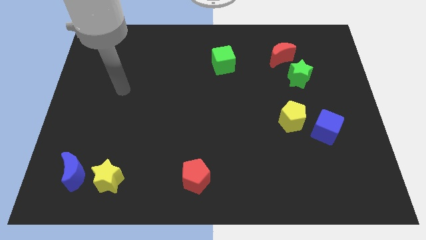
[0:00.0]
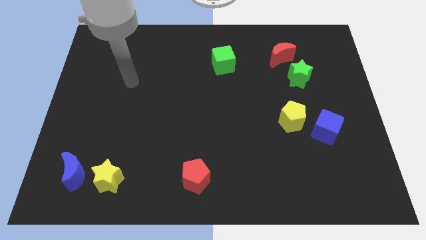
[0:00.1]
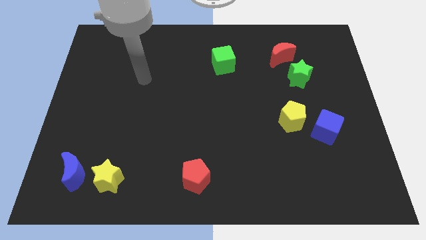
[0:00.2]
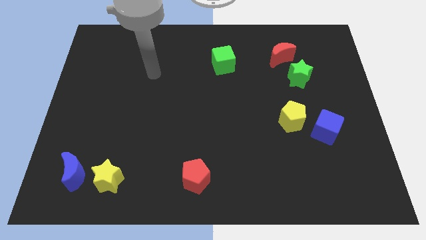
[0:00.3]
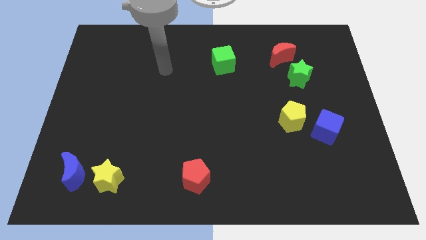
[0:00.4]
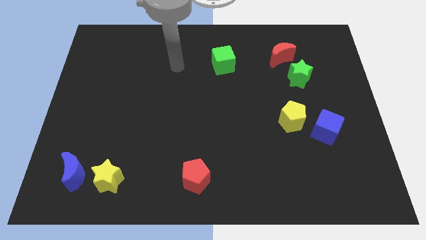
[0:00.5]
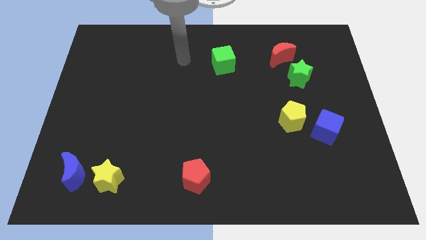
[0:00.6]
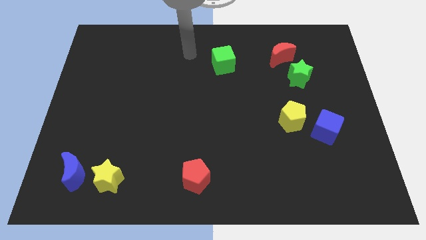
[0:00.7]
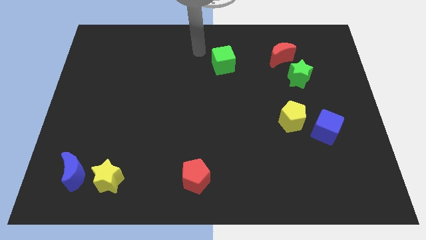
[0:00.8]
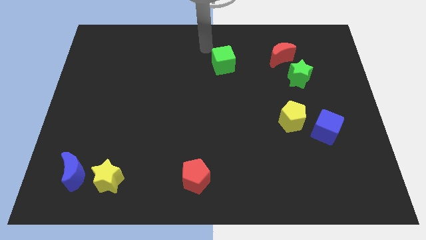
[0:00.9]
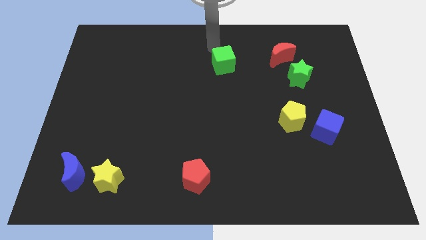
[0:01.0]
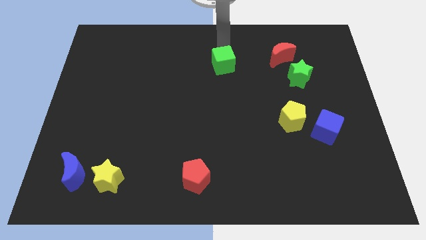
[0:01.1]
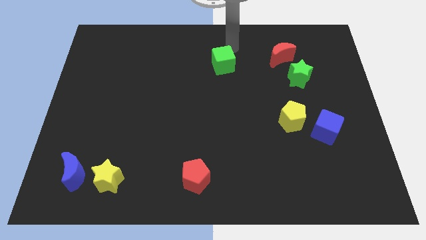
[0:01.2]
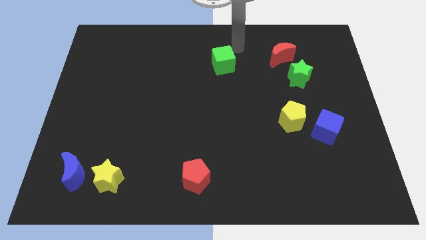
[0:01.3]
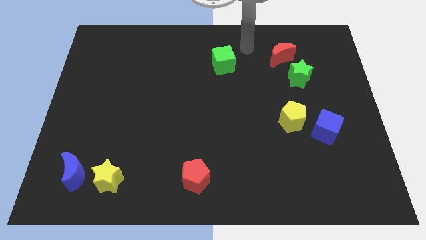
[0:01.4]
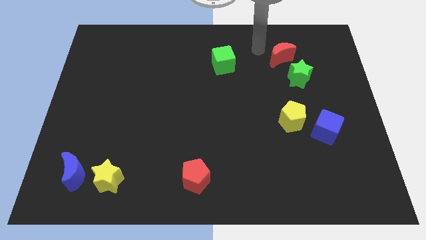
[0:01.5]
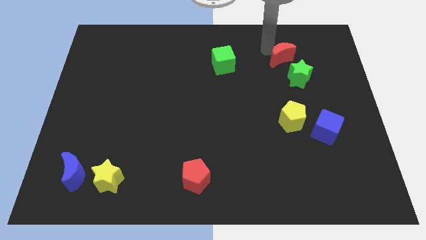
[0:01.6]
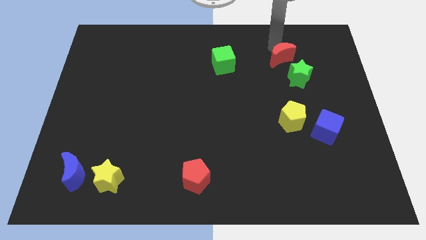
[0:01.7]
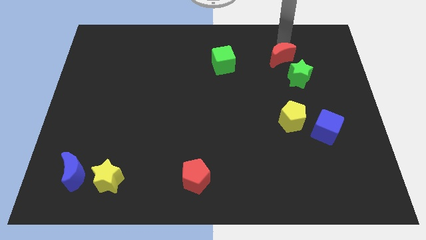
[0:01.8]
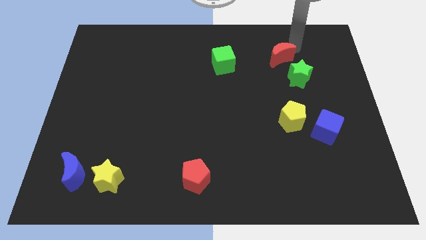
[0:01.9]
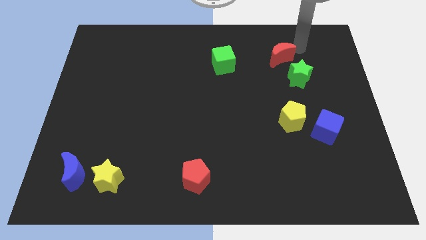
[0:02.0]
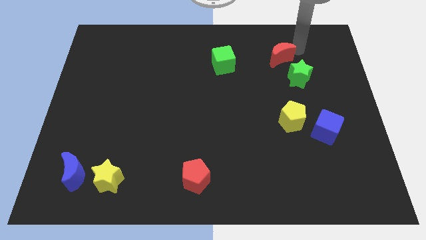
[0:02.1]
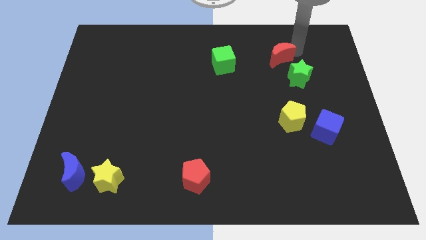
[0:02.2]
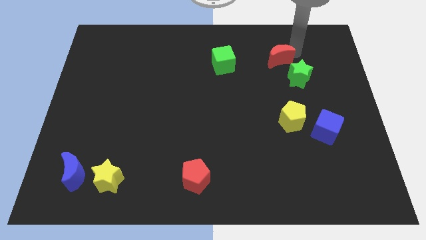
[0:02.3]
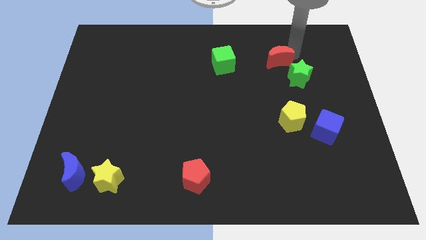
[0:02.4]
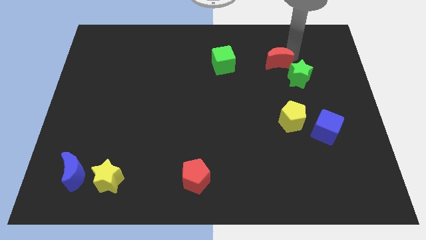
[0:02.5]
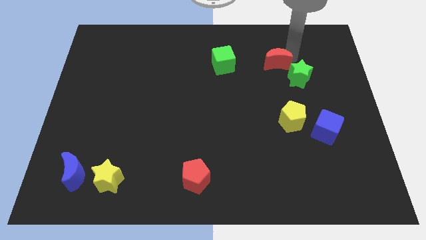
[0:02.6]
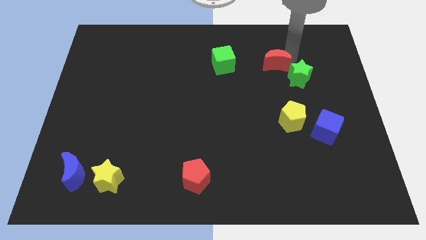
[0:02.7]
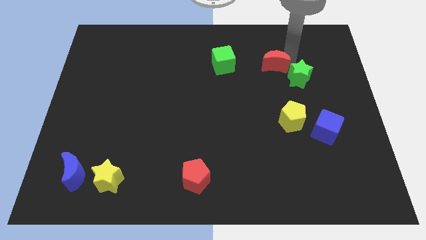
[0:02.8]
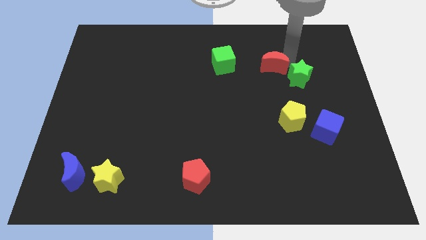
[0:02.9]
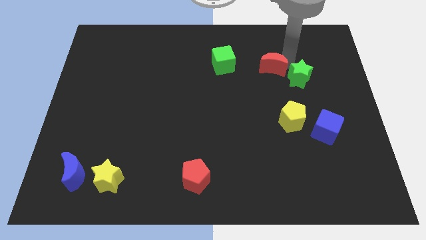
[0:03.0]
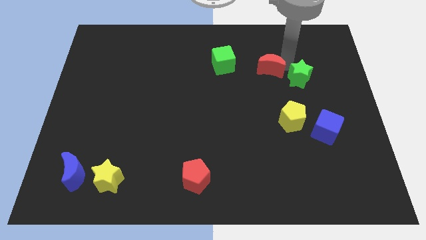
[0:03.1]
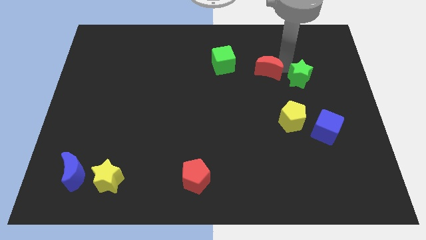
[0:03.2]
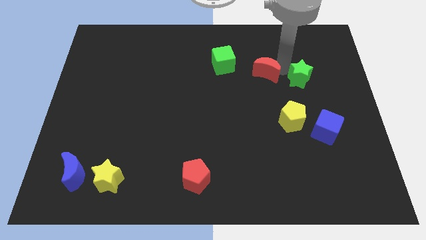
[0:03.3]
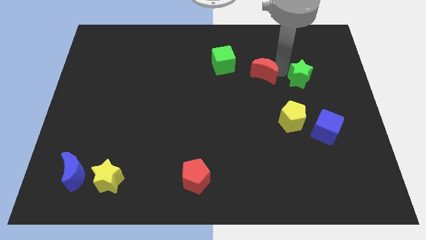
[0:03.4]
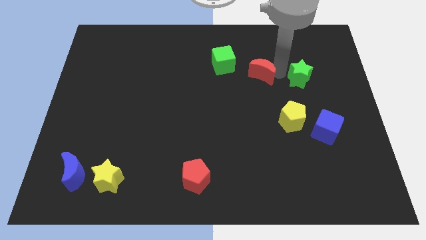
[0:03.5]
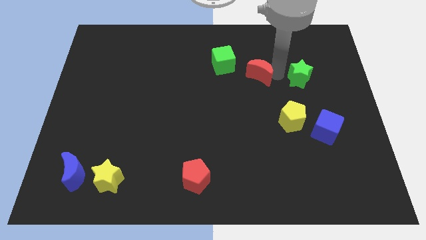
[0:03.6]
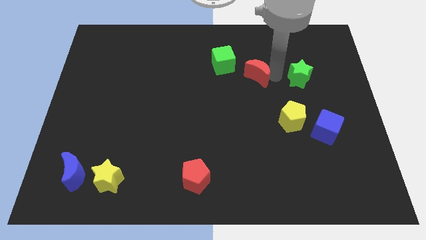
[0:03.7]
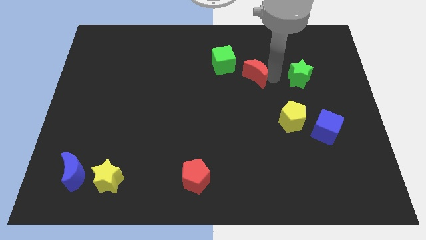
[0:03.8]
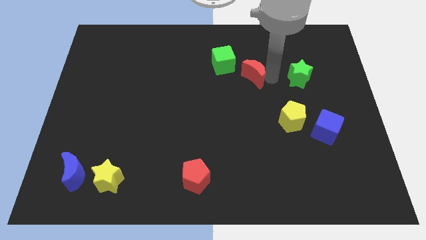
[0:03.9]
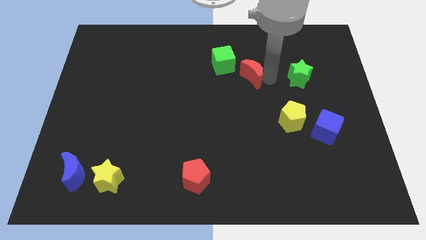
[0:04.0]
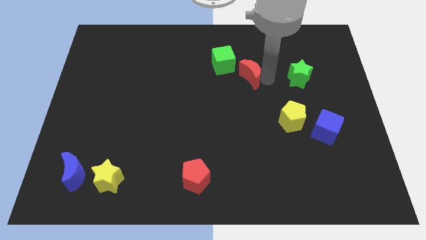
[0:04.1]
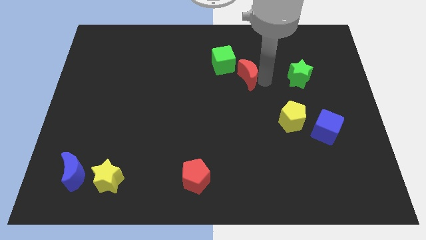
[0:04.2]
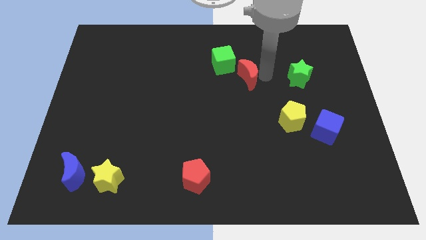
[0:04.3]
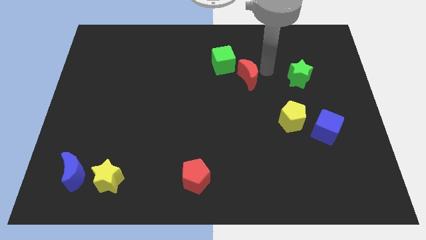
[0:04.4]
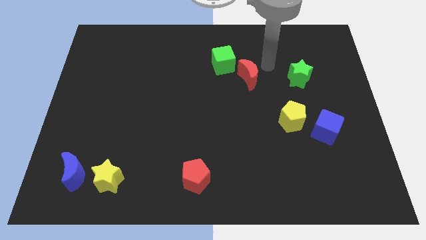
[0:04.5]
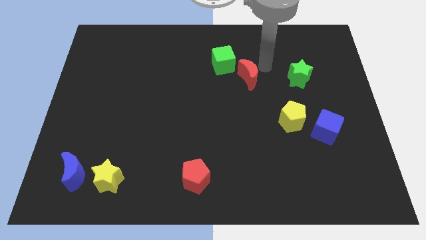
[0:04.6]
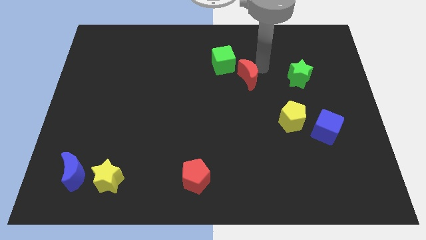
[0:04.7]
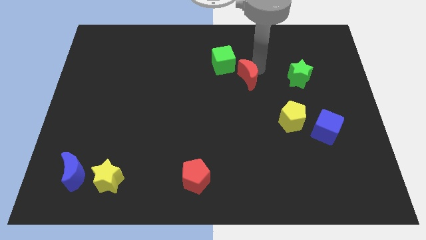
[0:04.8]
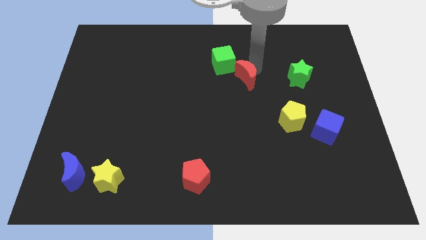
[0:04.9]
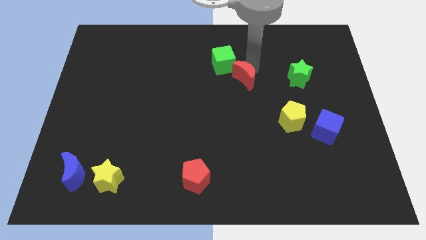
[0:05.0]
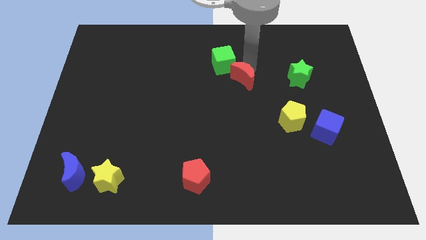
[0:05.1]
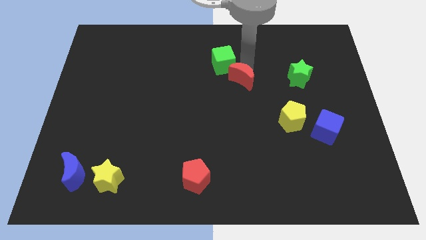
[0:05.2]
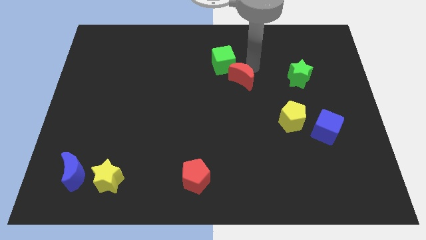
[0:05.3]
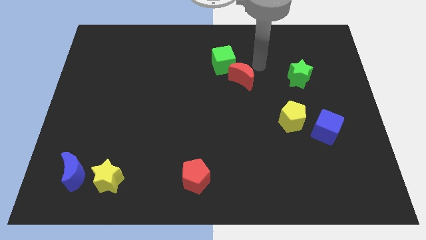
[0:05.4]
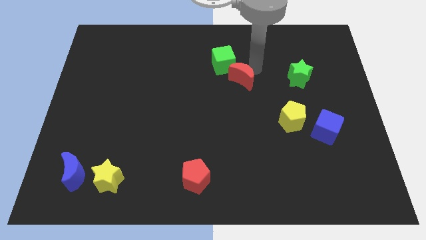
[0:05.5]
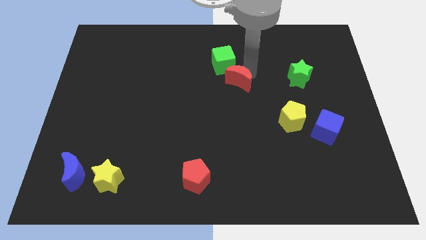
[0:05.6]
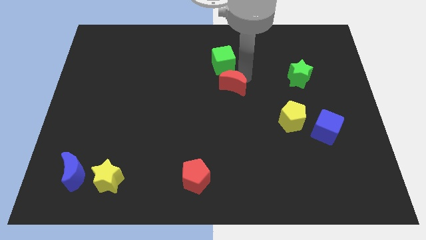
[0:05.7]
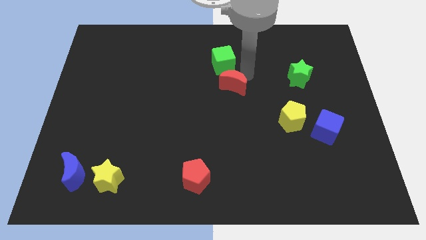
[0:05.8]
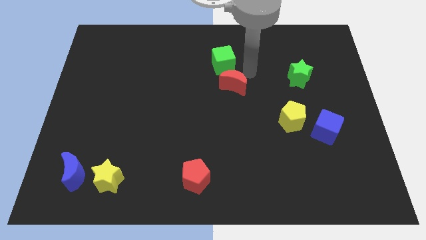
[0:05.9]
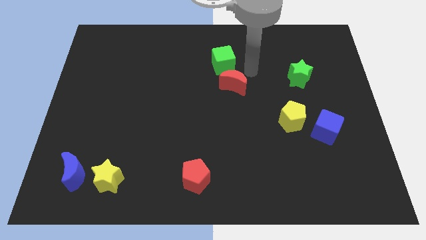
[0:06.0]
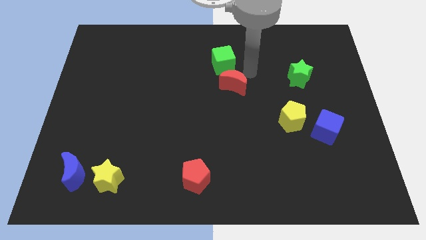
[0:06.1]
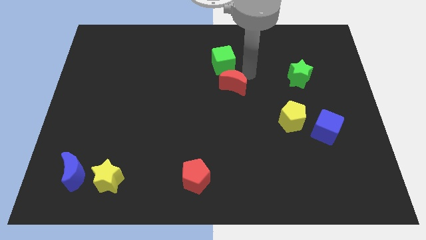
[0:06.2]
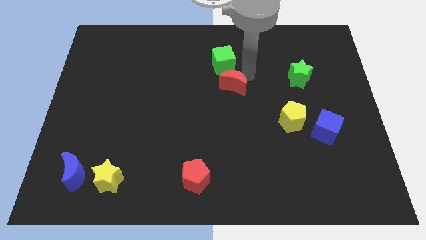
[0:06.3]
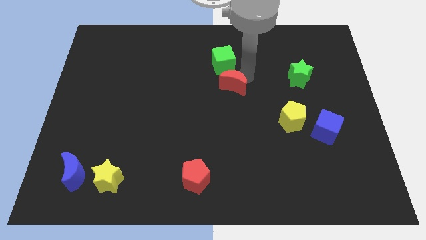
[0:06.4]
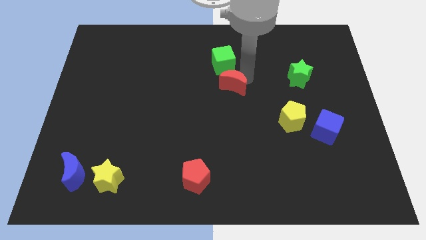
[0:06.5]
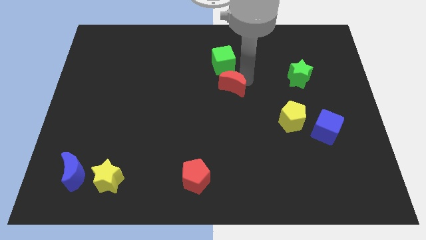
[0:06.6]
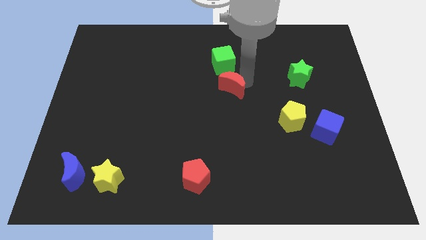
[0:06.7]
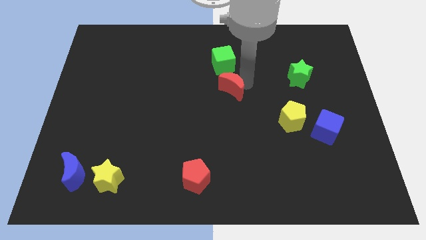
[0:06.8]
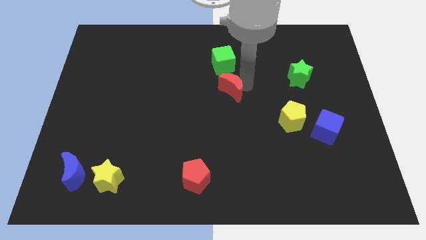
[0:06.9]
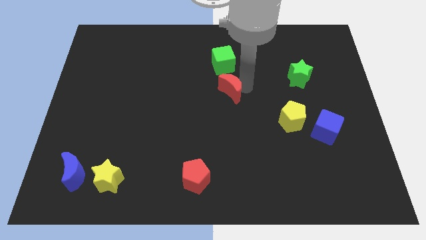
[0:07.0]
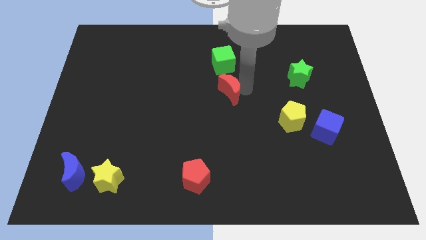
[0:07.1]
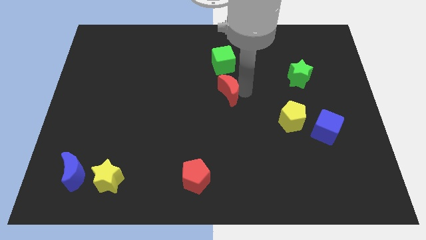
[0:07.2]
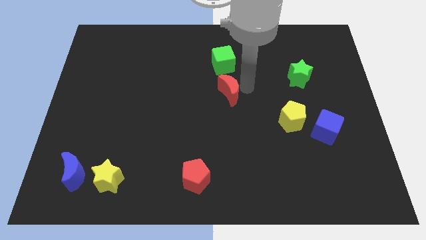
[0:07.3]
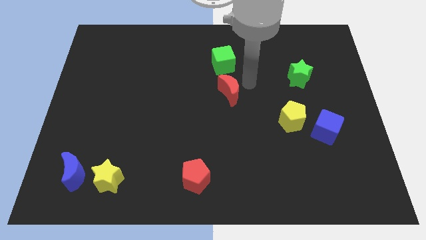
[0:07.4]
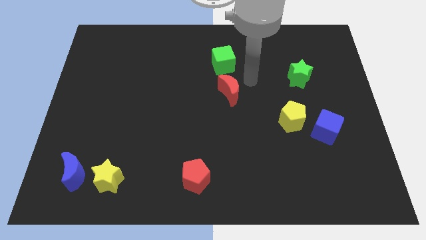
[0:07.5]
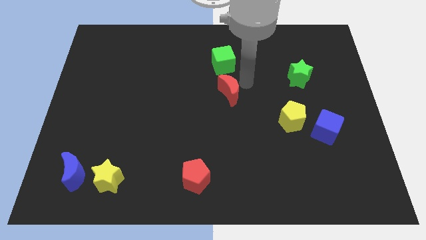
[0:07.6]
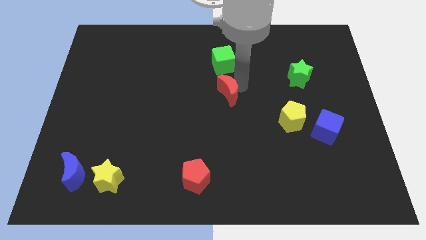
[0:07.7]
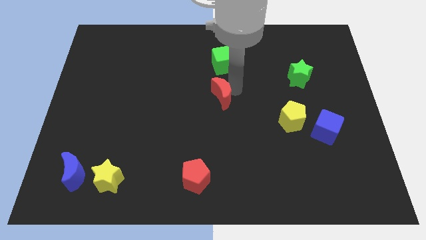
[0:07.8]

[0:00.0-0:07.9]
move the red moon downwards and left diagonally
